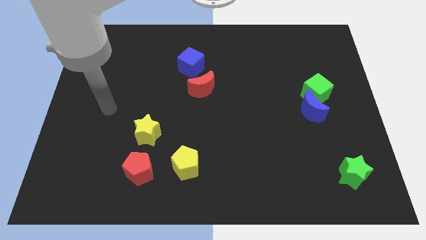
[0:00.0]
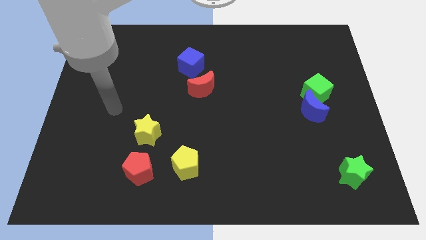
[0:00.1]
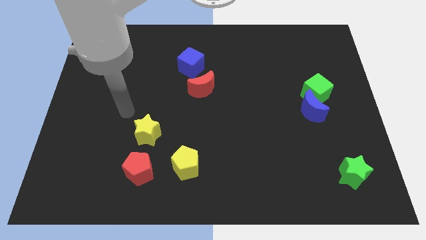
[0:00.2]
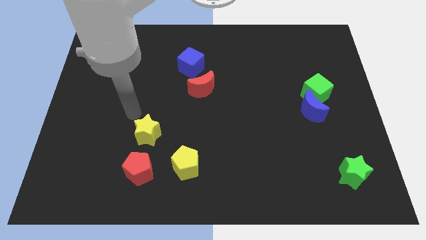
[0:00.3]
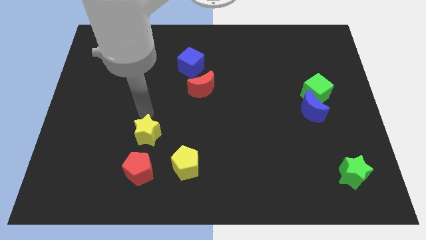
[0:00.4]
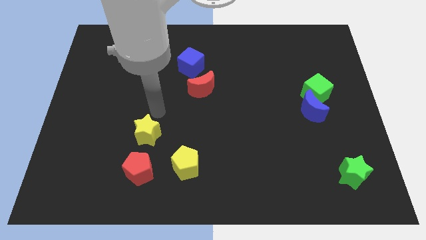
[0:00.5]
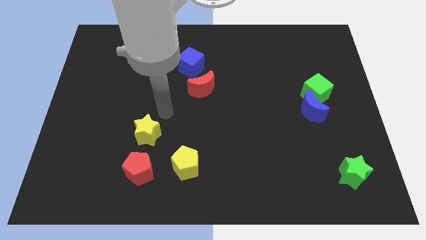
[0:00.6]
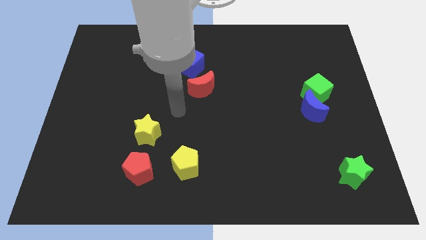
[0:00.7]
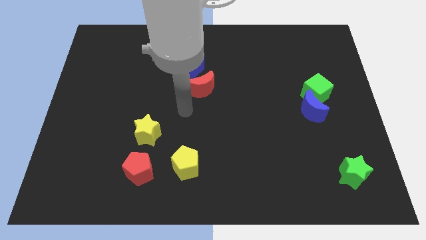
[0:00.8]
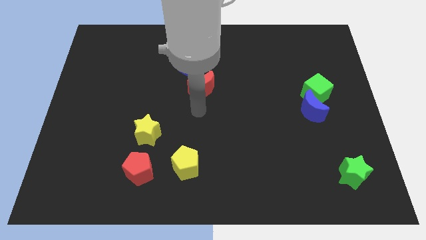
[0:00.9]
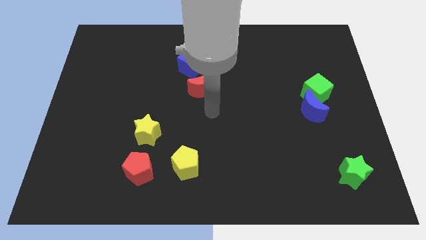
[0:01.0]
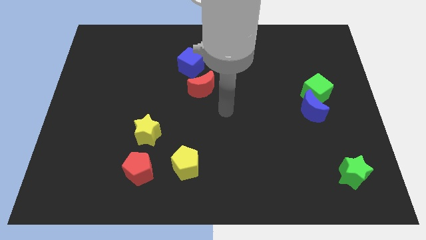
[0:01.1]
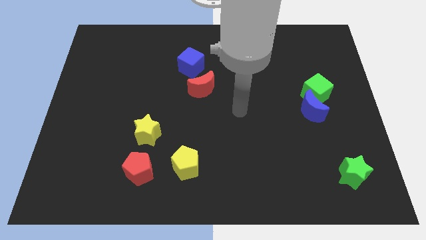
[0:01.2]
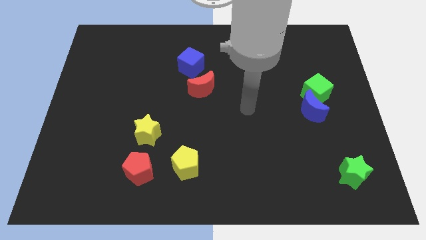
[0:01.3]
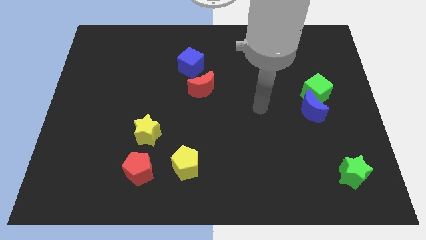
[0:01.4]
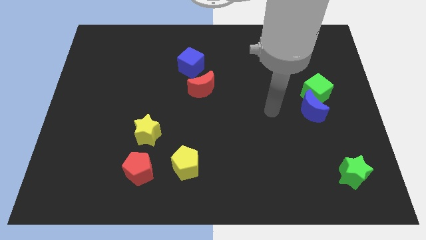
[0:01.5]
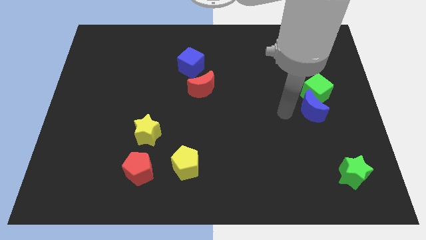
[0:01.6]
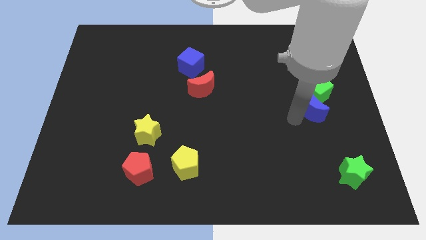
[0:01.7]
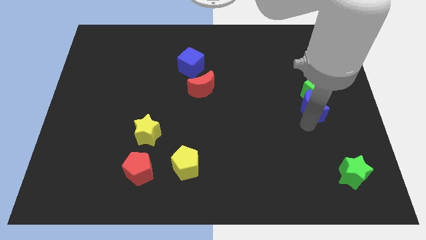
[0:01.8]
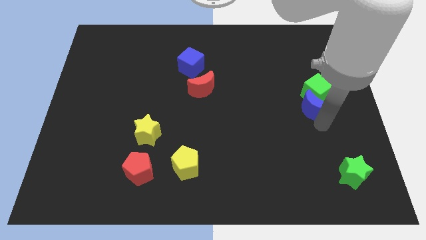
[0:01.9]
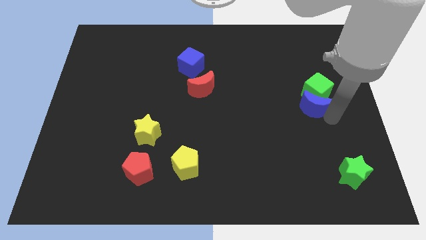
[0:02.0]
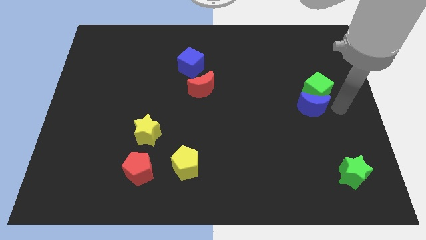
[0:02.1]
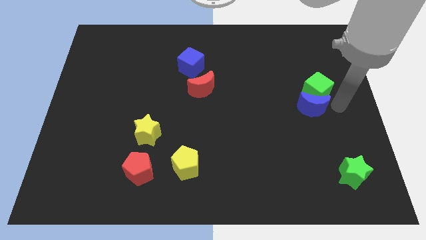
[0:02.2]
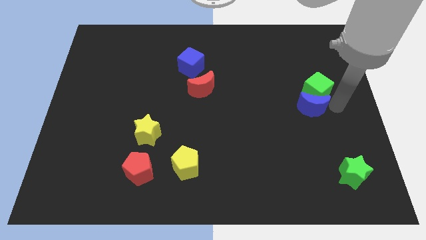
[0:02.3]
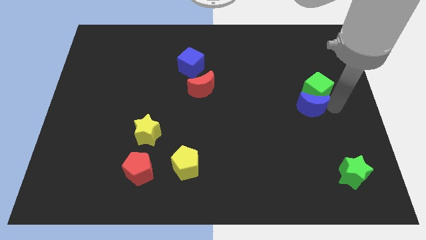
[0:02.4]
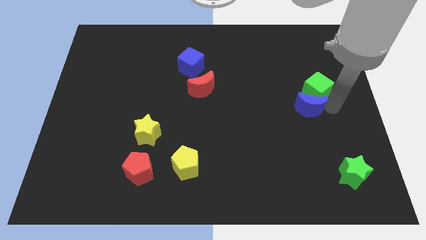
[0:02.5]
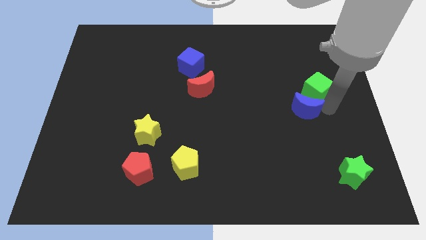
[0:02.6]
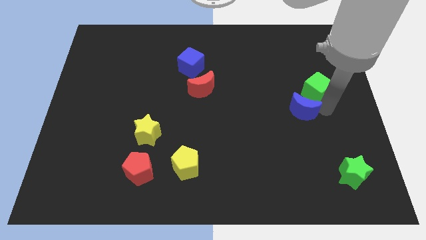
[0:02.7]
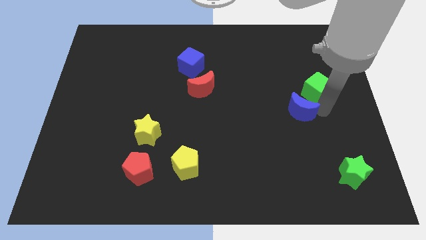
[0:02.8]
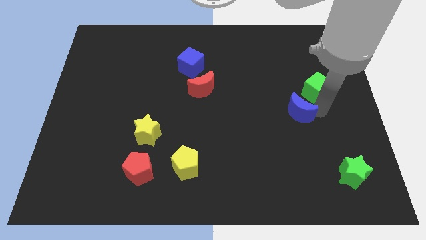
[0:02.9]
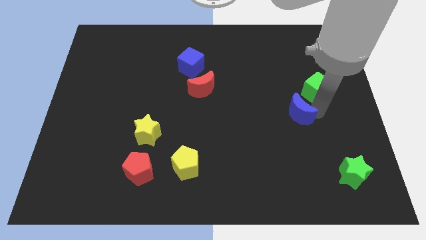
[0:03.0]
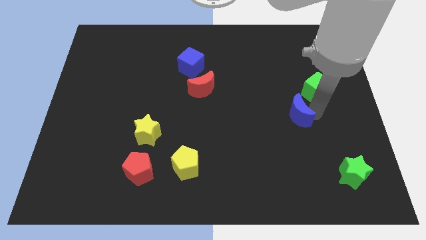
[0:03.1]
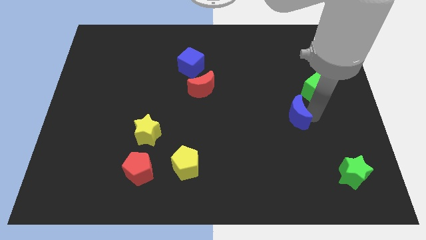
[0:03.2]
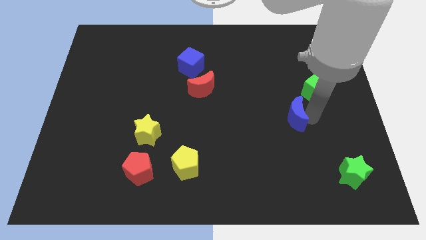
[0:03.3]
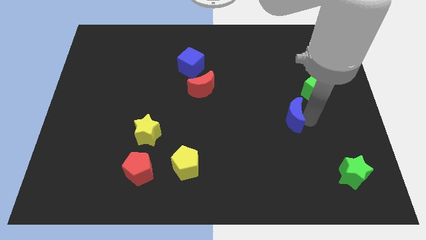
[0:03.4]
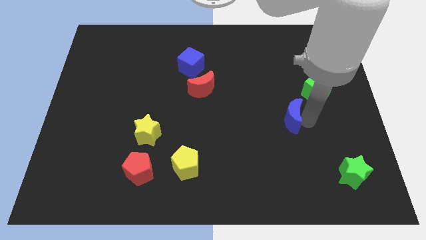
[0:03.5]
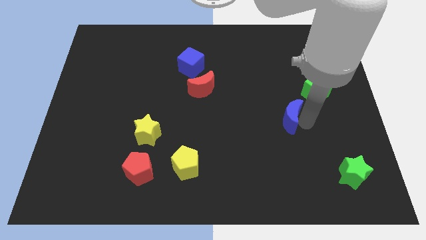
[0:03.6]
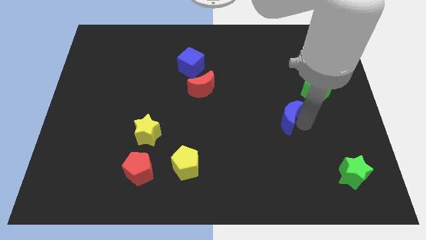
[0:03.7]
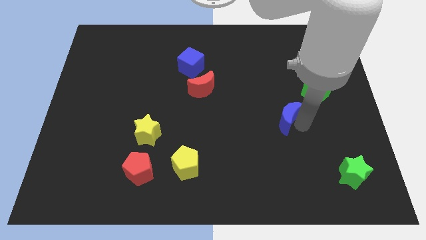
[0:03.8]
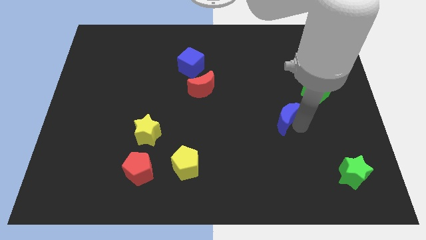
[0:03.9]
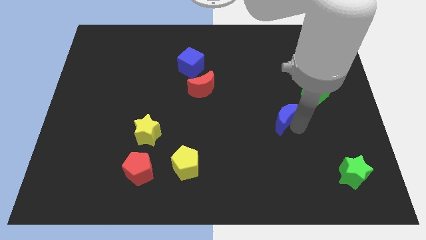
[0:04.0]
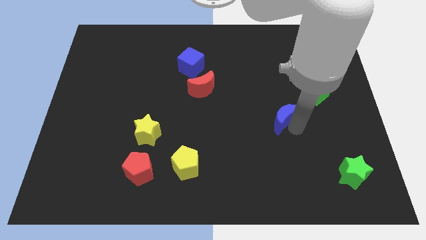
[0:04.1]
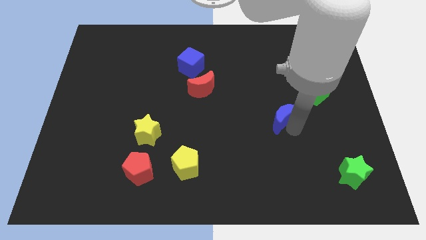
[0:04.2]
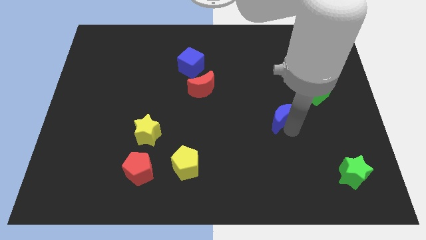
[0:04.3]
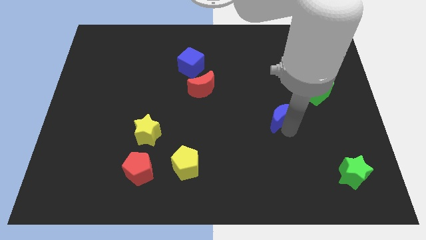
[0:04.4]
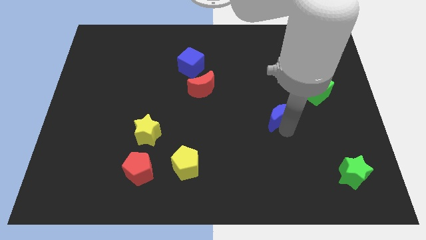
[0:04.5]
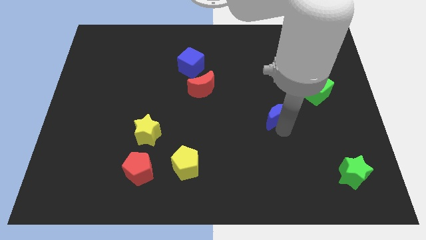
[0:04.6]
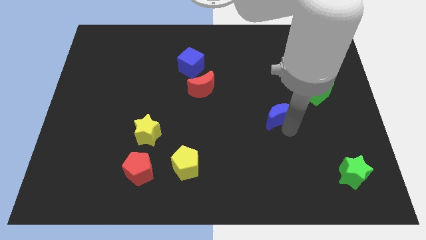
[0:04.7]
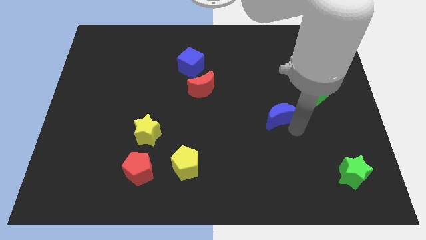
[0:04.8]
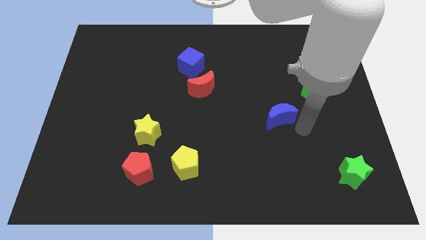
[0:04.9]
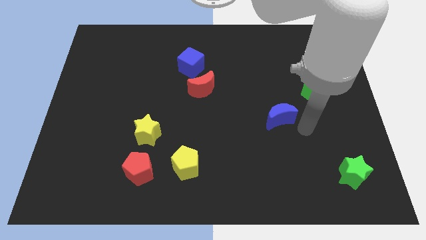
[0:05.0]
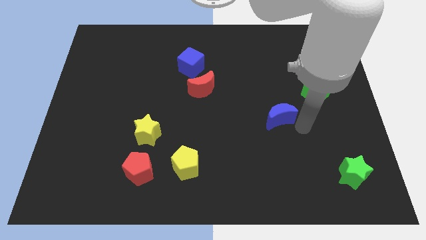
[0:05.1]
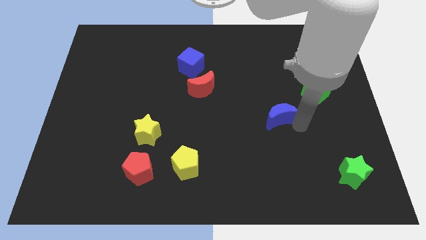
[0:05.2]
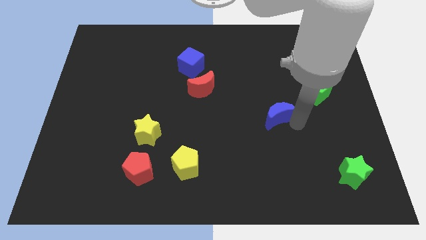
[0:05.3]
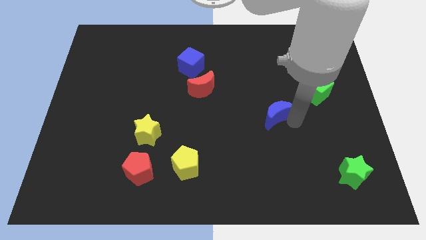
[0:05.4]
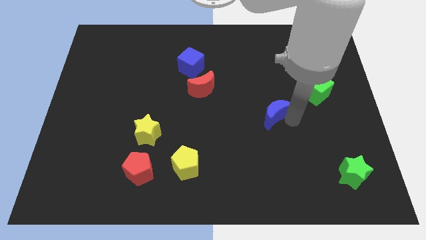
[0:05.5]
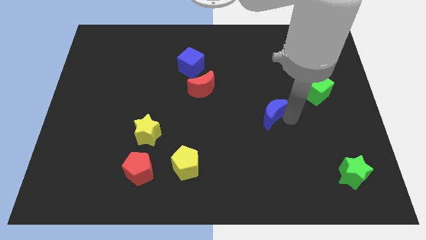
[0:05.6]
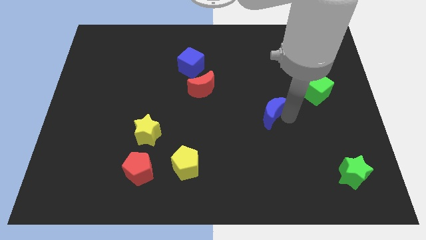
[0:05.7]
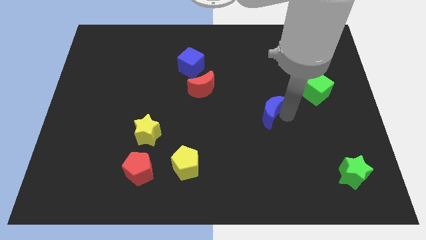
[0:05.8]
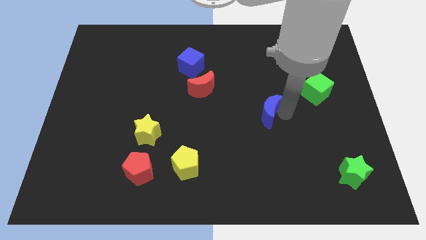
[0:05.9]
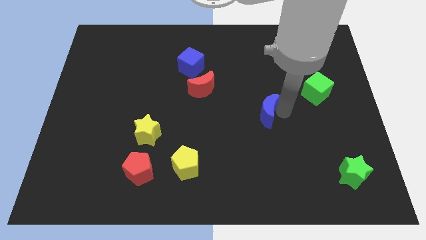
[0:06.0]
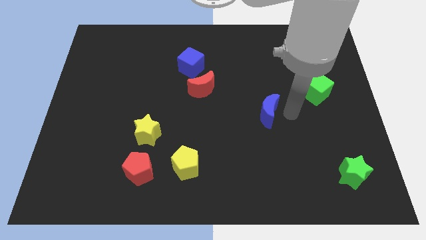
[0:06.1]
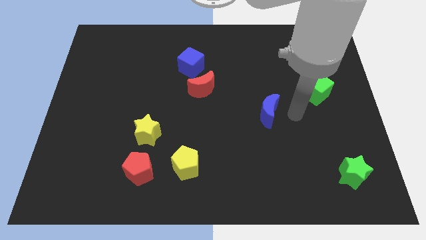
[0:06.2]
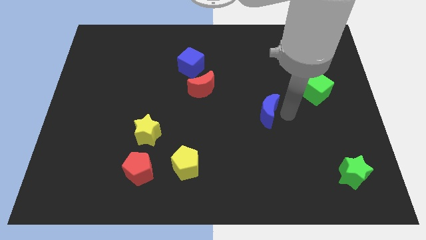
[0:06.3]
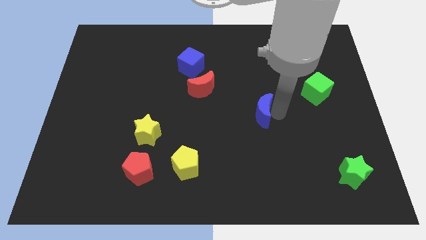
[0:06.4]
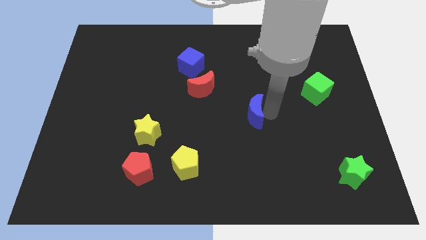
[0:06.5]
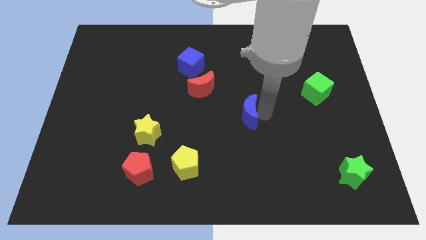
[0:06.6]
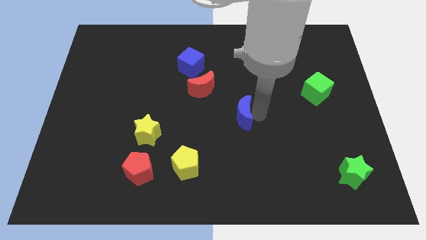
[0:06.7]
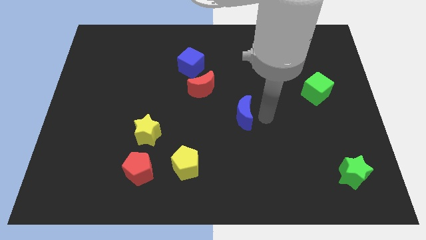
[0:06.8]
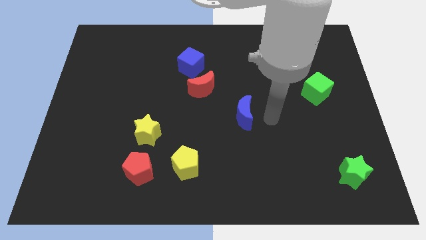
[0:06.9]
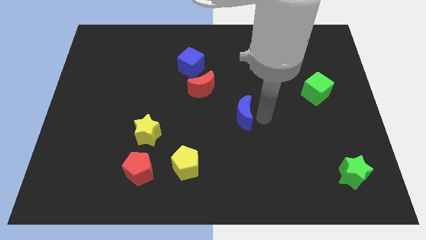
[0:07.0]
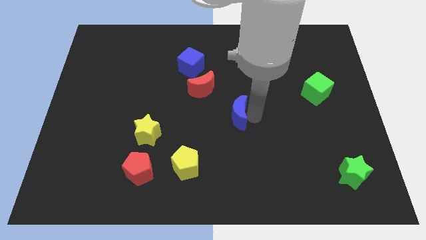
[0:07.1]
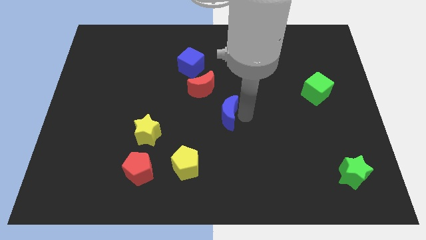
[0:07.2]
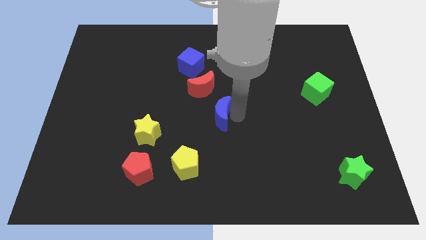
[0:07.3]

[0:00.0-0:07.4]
slide the blue moon left

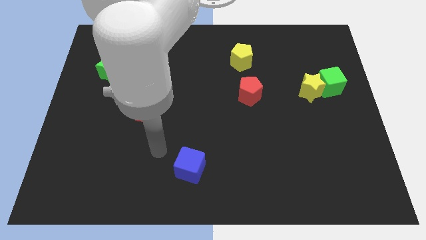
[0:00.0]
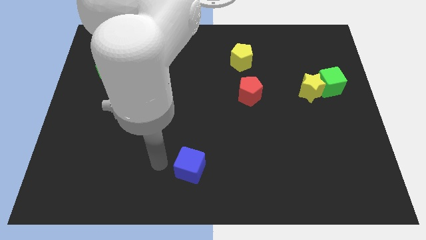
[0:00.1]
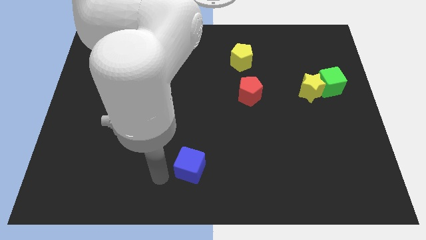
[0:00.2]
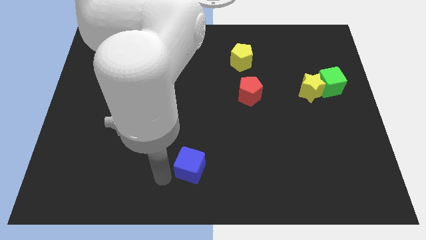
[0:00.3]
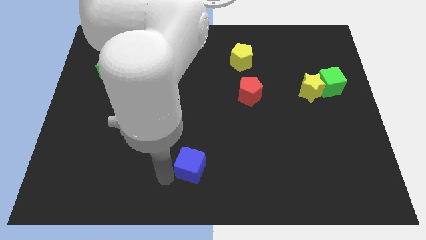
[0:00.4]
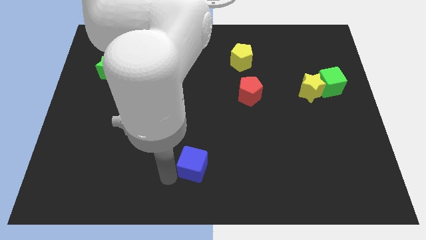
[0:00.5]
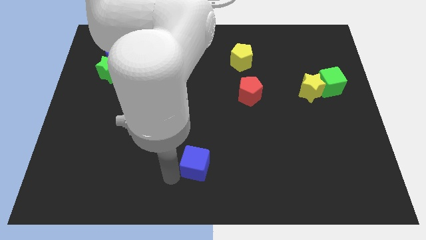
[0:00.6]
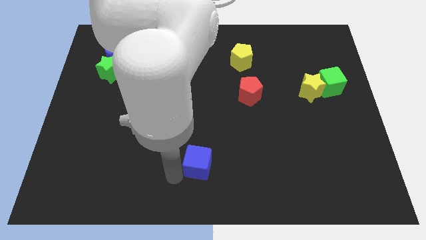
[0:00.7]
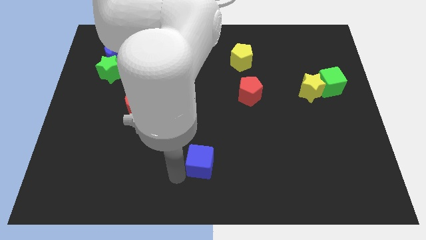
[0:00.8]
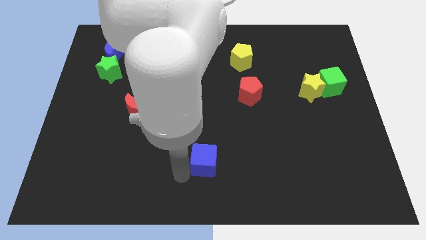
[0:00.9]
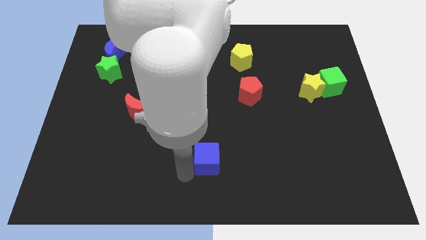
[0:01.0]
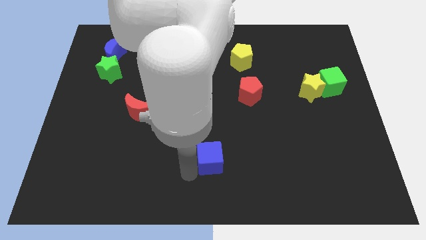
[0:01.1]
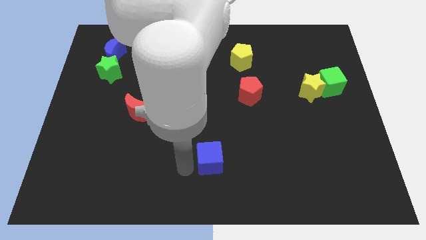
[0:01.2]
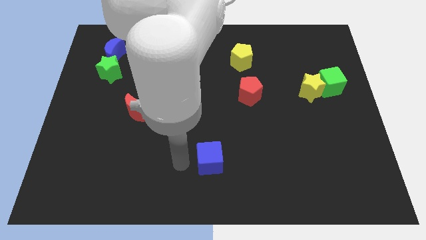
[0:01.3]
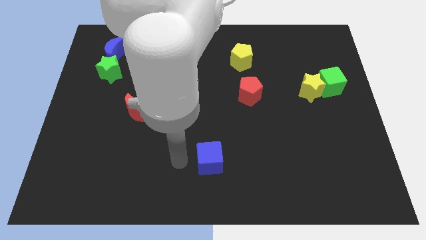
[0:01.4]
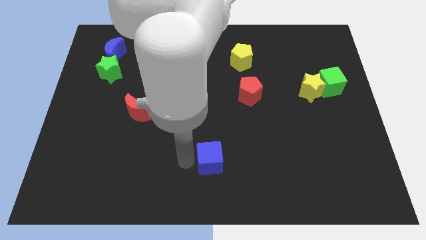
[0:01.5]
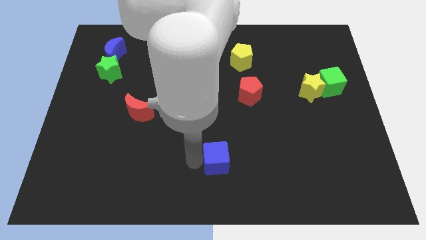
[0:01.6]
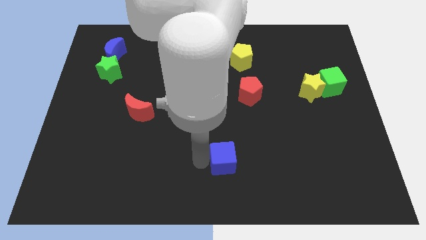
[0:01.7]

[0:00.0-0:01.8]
slide the blue cube somewhat right
